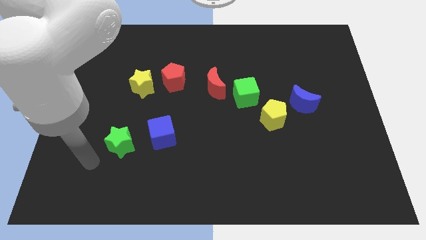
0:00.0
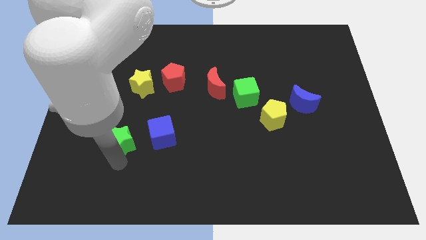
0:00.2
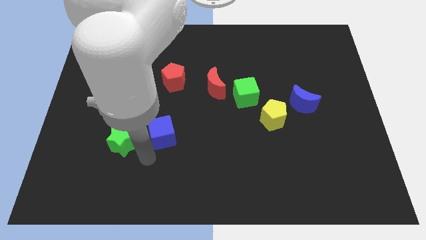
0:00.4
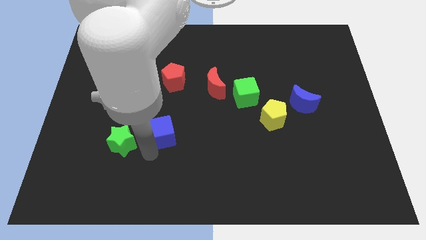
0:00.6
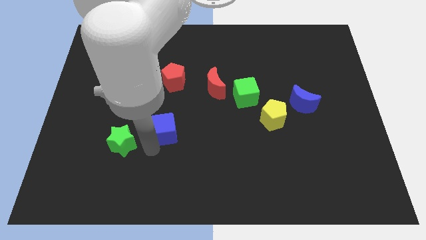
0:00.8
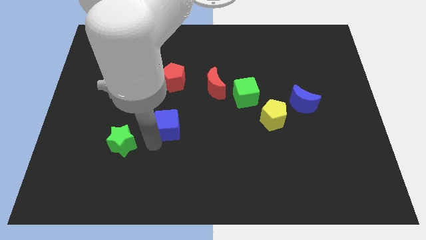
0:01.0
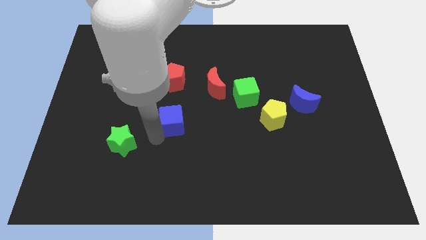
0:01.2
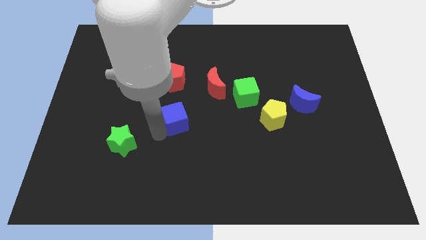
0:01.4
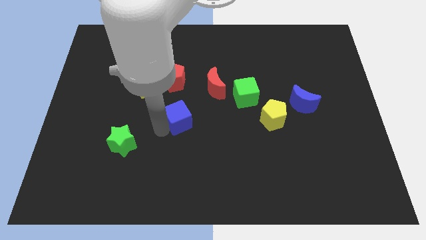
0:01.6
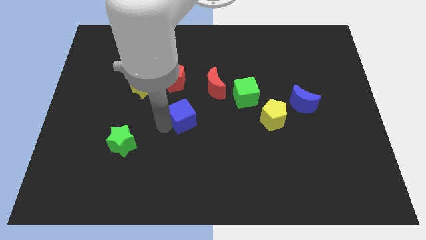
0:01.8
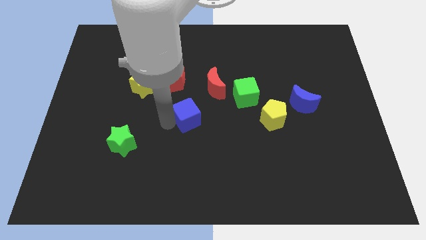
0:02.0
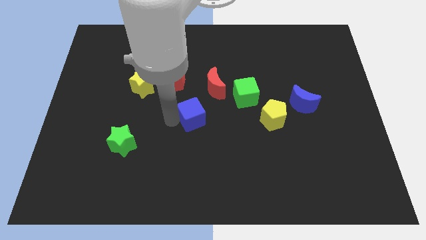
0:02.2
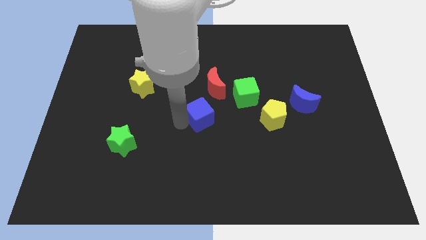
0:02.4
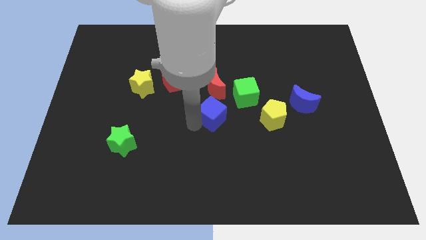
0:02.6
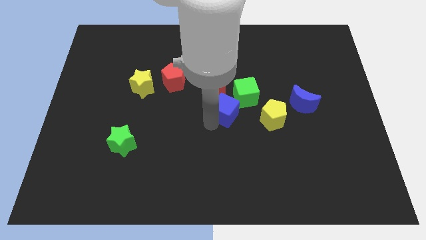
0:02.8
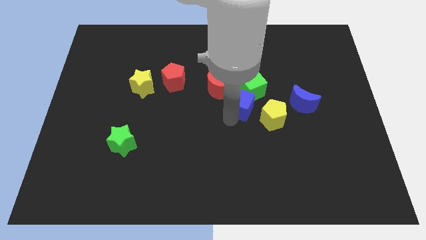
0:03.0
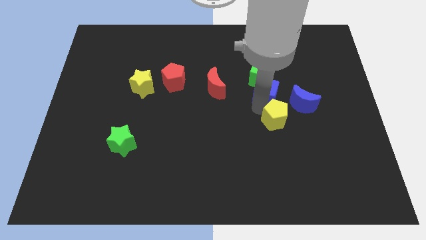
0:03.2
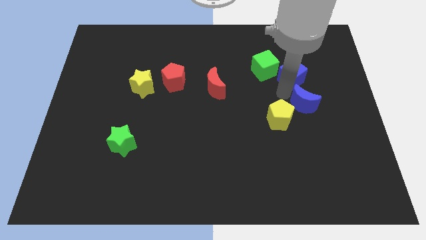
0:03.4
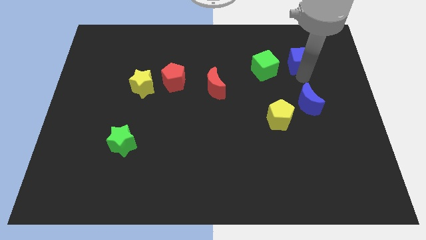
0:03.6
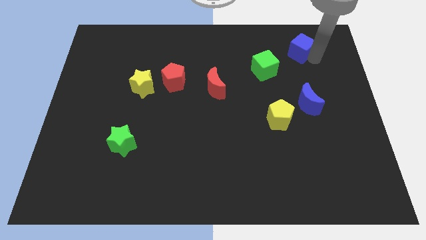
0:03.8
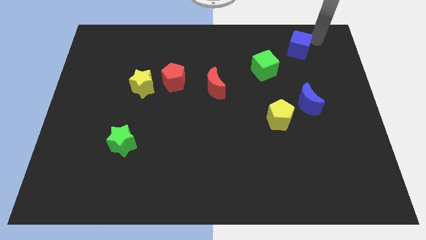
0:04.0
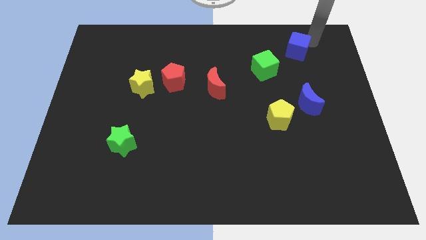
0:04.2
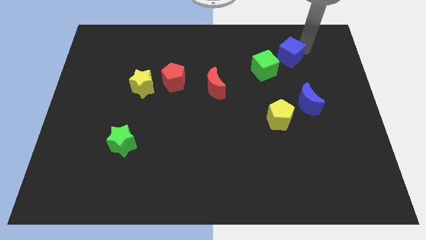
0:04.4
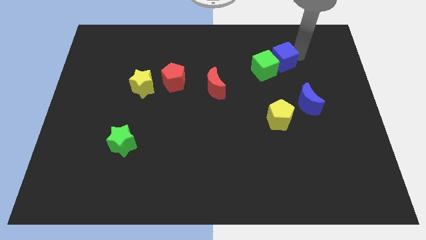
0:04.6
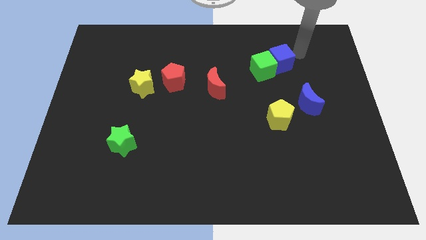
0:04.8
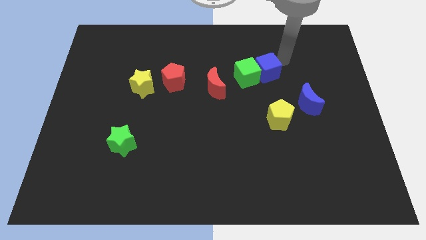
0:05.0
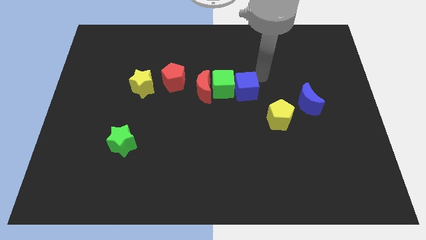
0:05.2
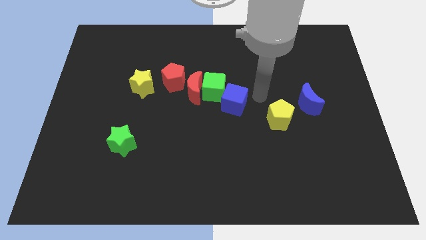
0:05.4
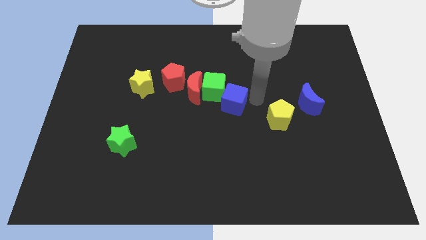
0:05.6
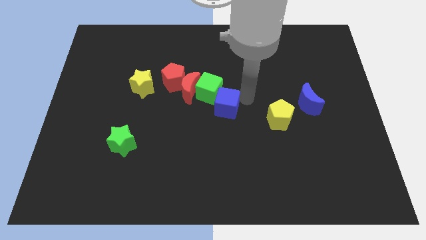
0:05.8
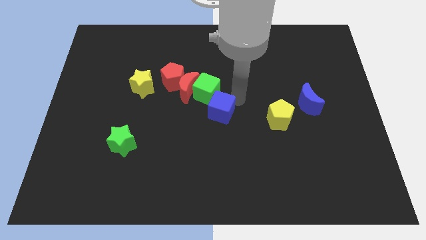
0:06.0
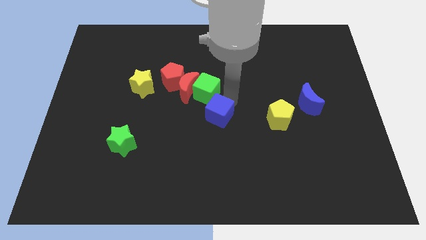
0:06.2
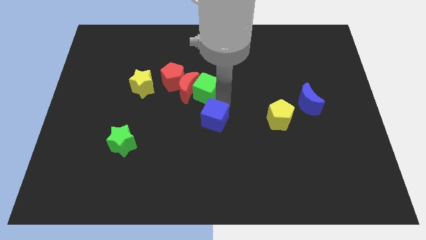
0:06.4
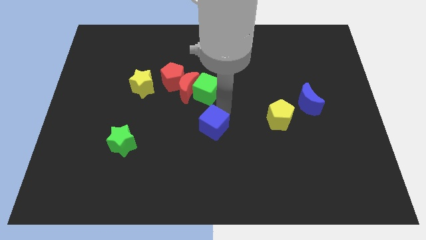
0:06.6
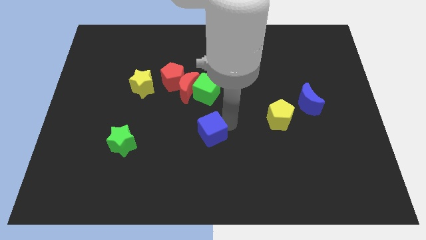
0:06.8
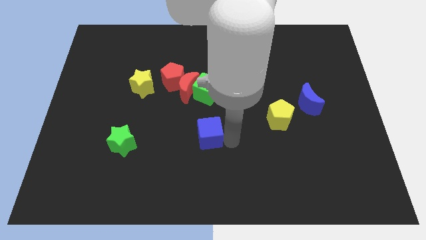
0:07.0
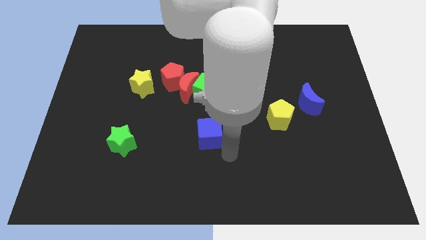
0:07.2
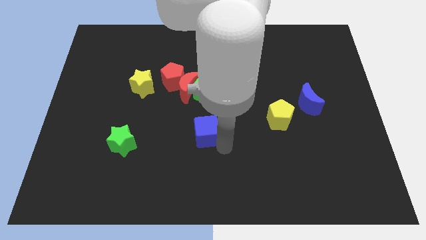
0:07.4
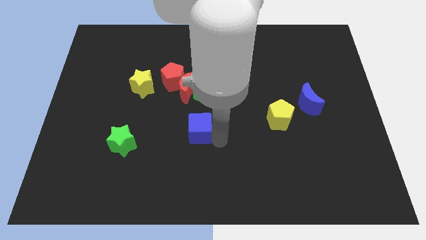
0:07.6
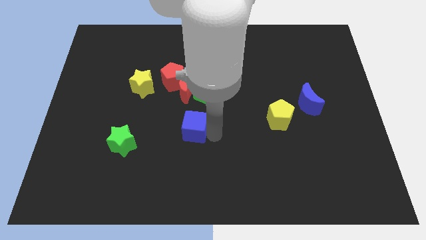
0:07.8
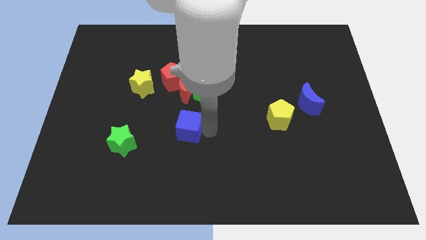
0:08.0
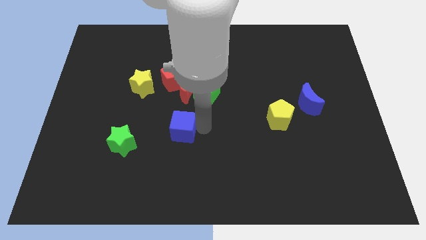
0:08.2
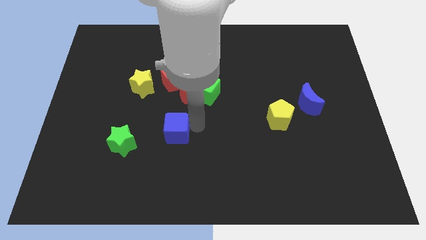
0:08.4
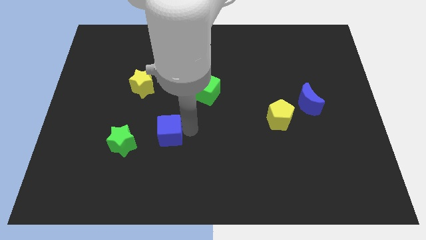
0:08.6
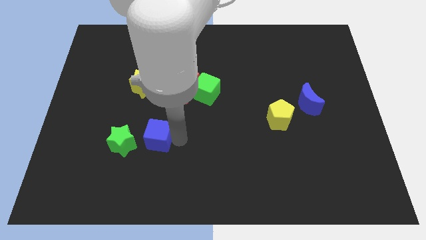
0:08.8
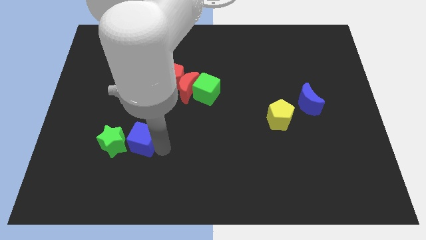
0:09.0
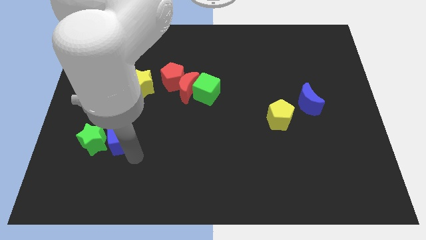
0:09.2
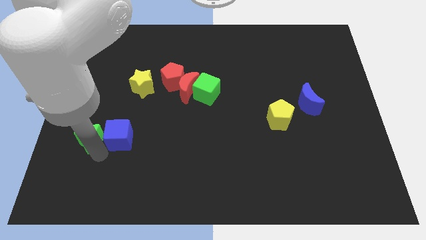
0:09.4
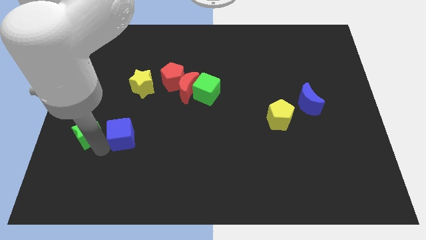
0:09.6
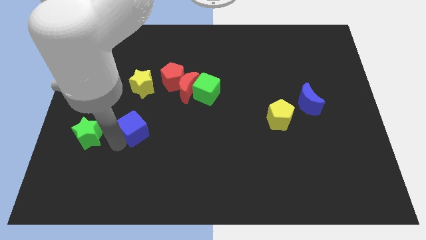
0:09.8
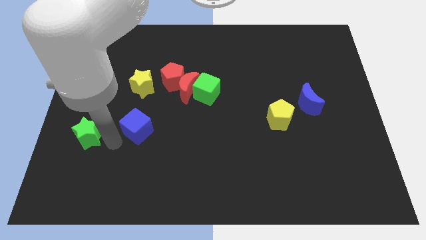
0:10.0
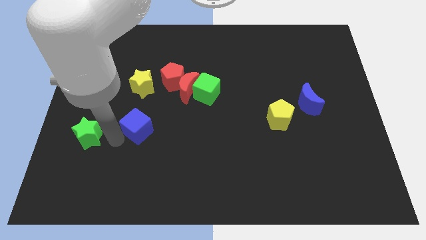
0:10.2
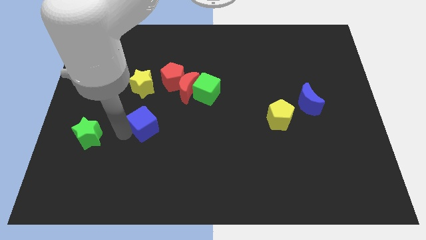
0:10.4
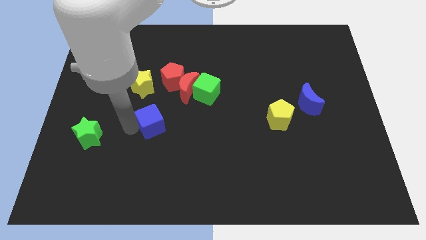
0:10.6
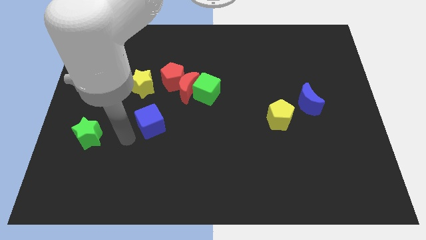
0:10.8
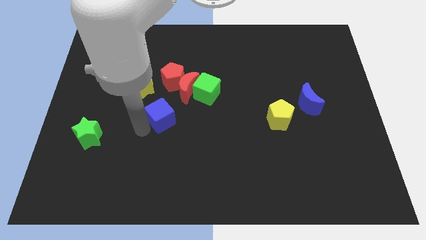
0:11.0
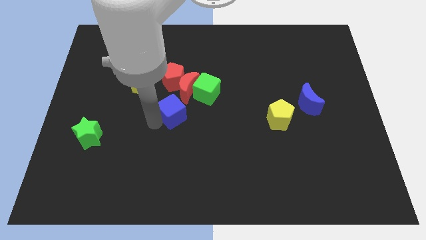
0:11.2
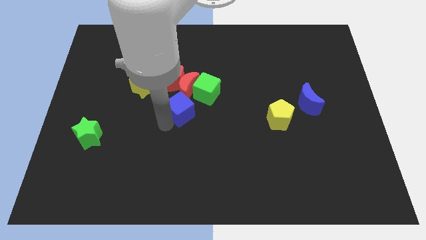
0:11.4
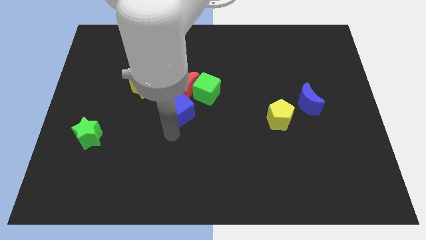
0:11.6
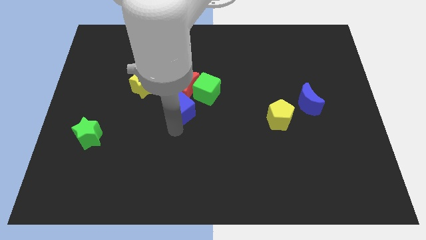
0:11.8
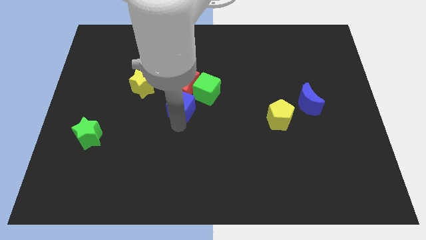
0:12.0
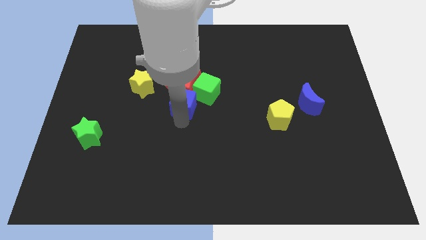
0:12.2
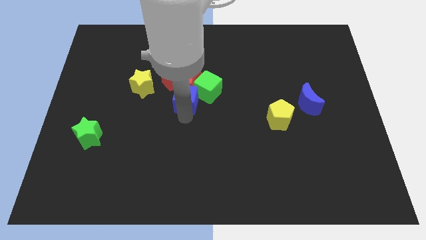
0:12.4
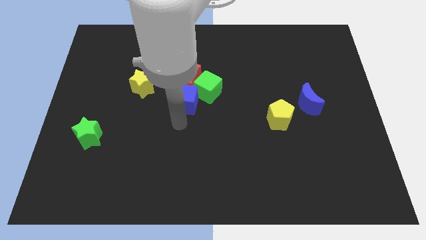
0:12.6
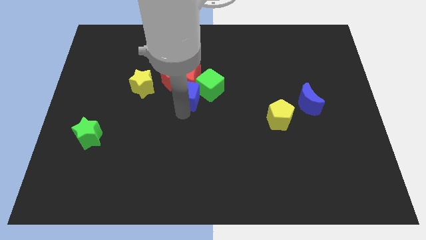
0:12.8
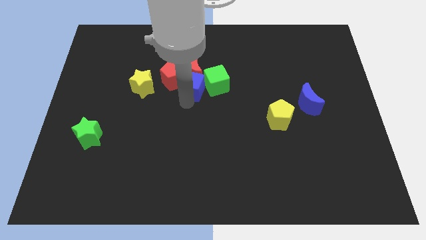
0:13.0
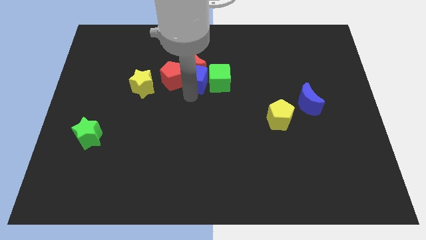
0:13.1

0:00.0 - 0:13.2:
push the blue cube to the top right of the red pentagon

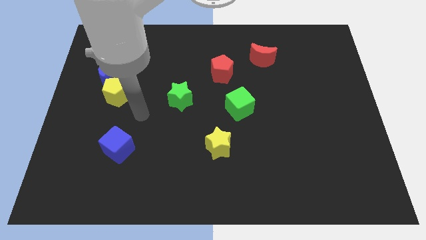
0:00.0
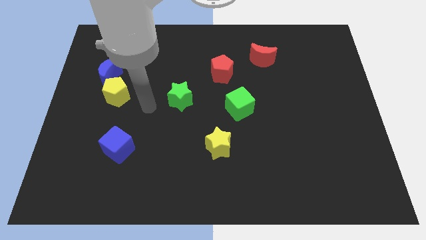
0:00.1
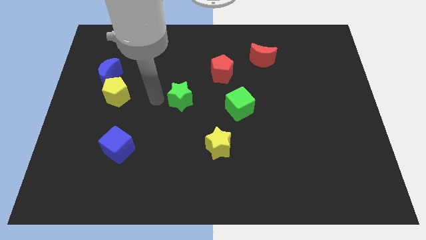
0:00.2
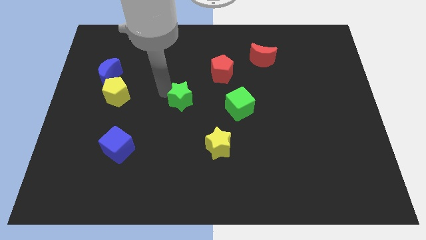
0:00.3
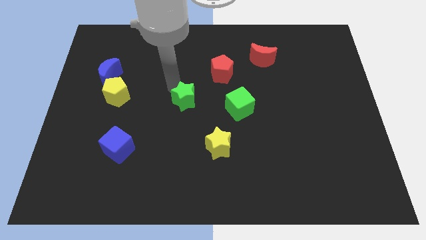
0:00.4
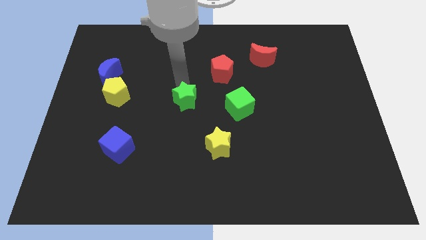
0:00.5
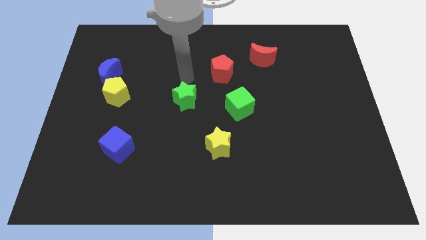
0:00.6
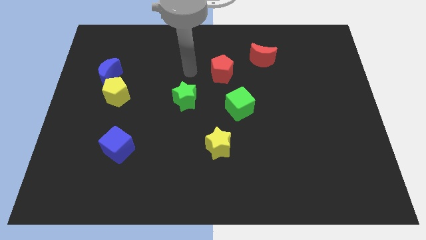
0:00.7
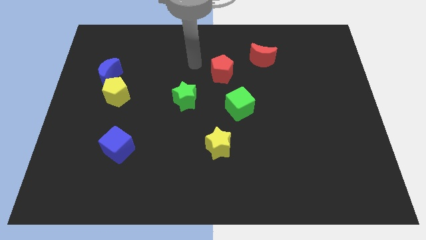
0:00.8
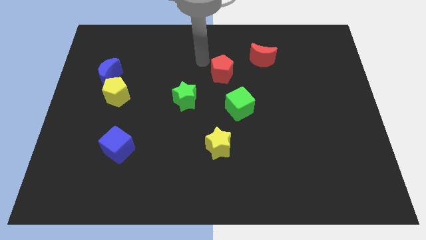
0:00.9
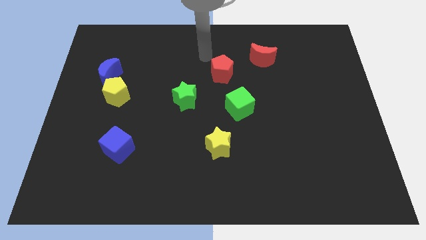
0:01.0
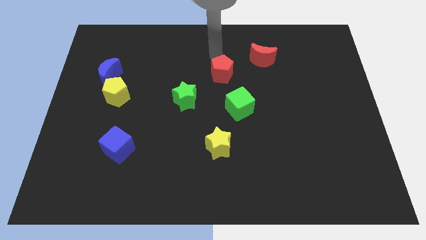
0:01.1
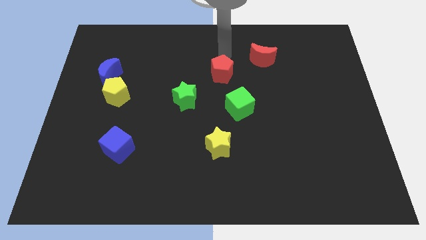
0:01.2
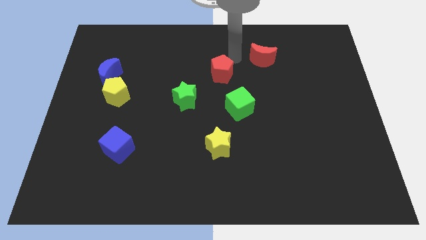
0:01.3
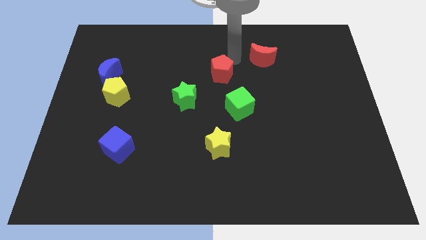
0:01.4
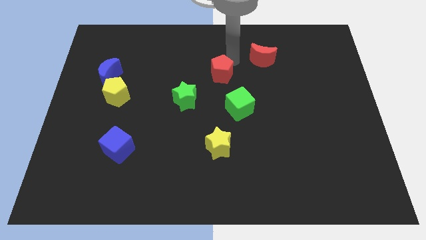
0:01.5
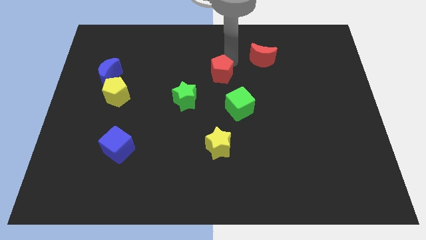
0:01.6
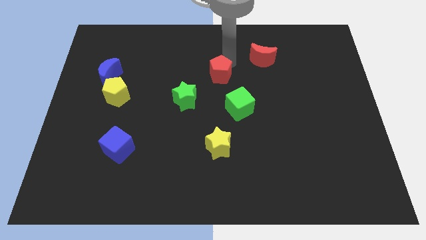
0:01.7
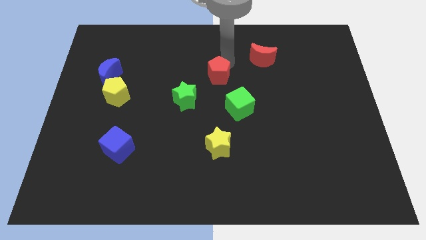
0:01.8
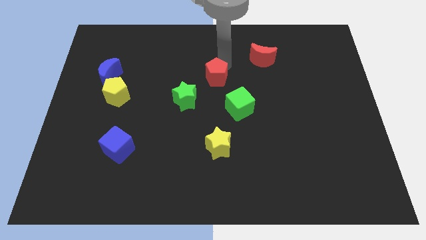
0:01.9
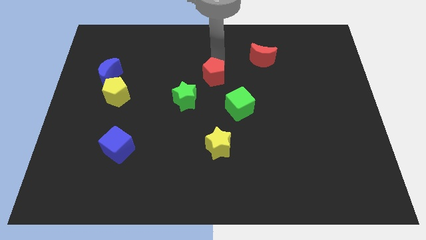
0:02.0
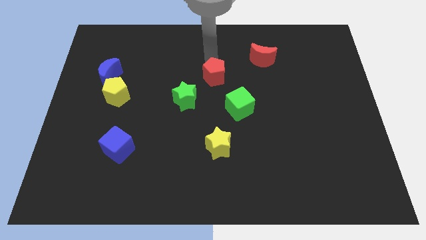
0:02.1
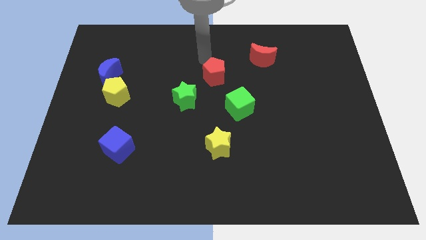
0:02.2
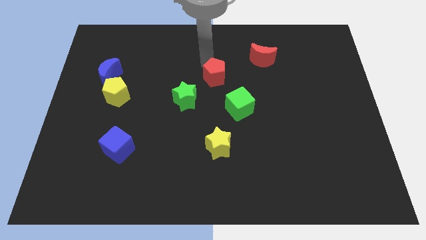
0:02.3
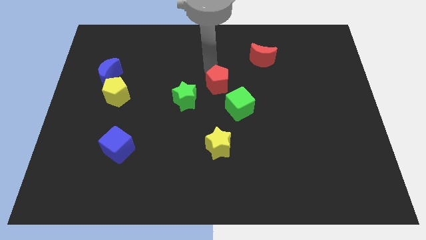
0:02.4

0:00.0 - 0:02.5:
move the red pentagon to the right of the green star
